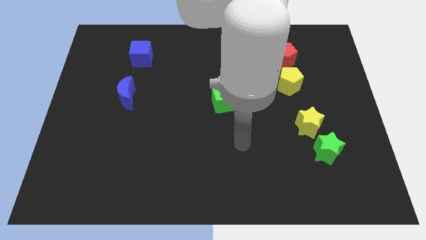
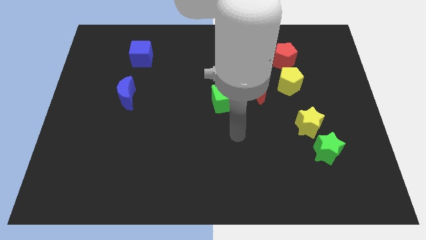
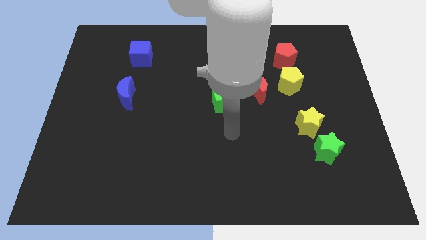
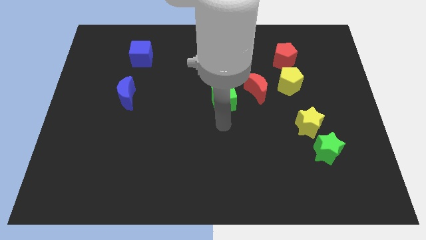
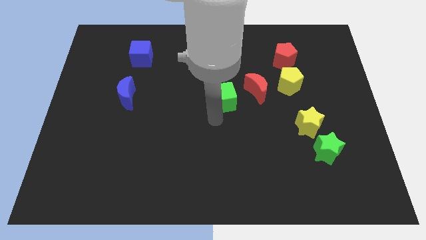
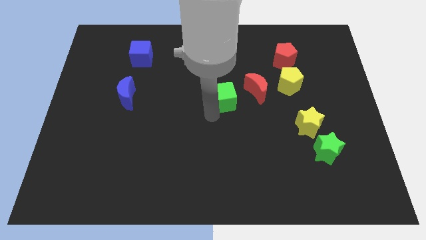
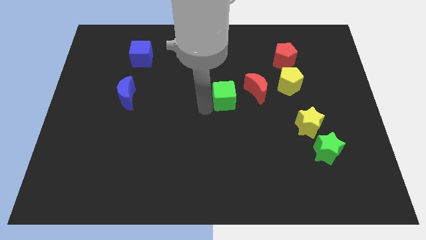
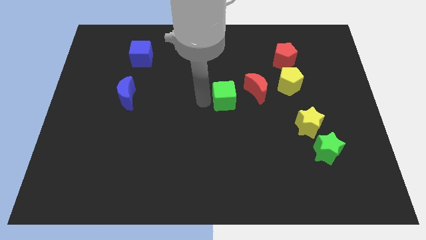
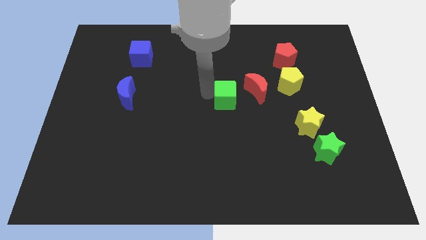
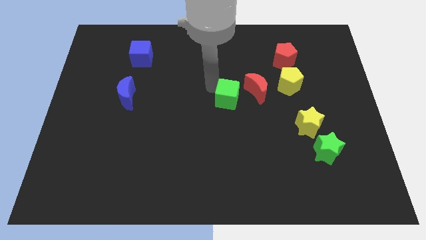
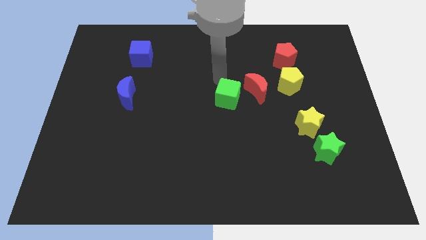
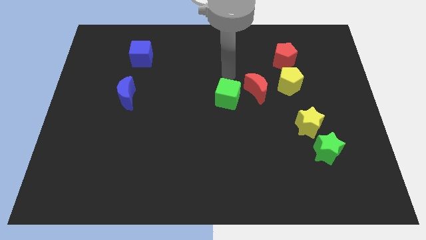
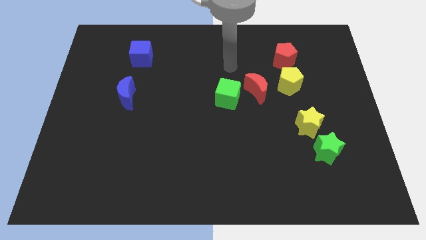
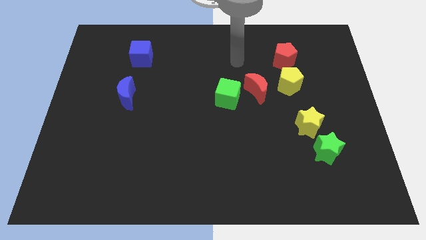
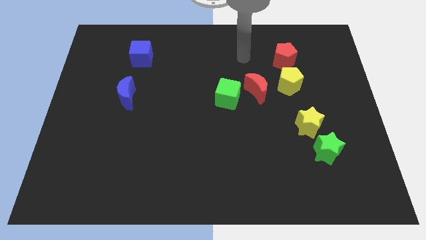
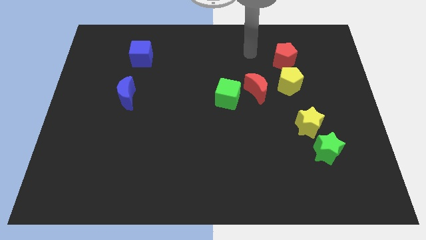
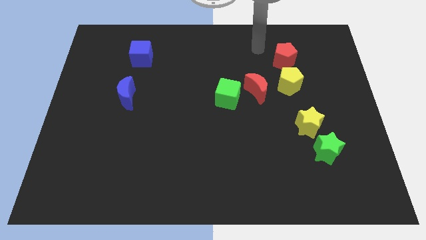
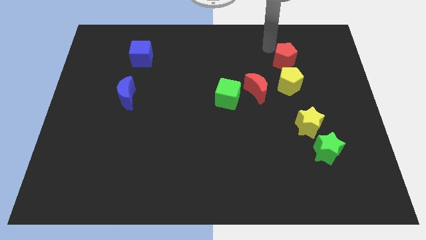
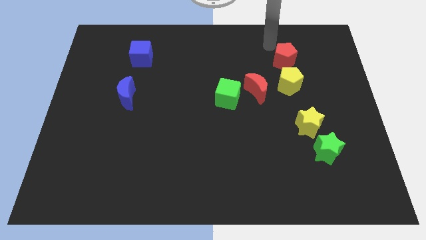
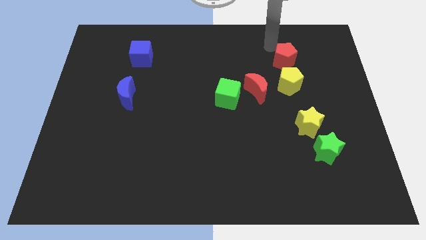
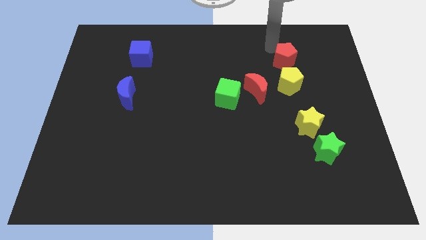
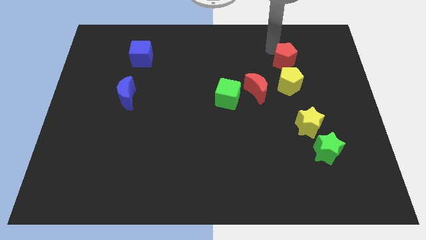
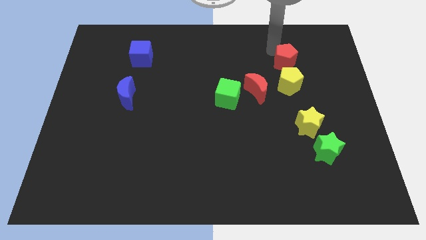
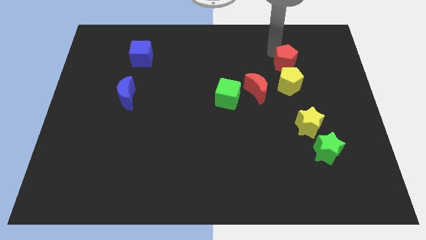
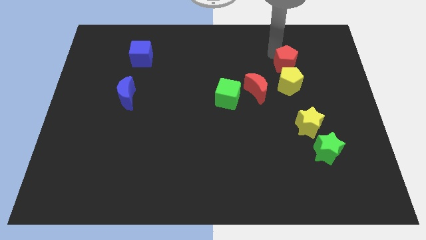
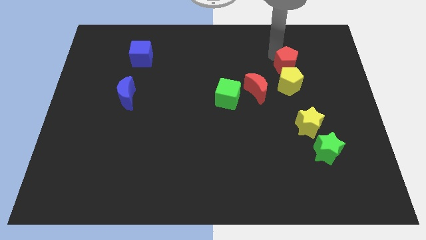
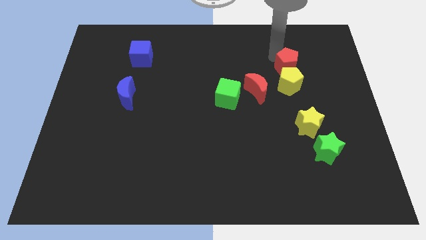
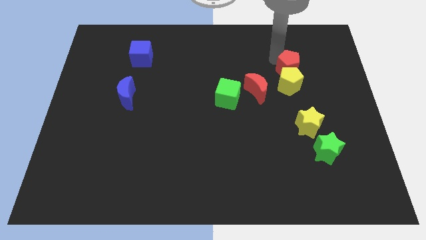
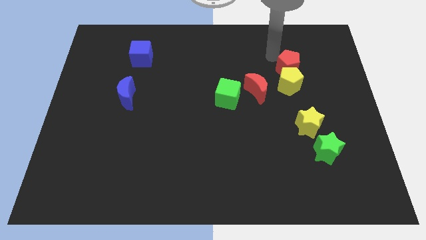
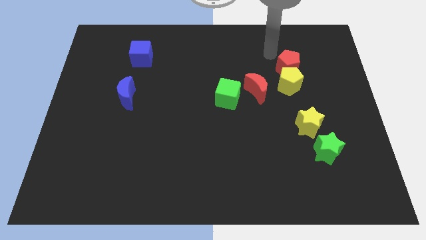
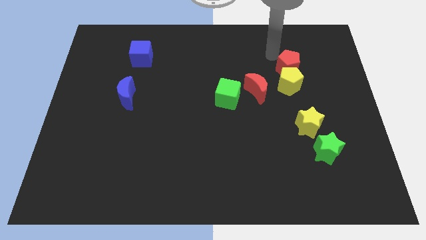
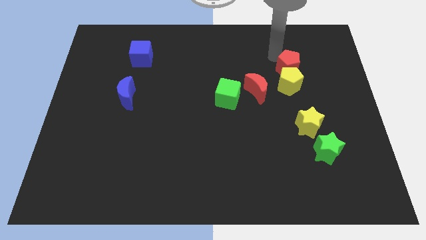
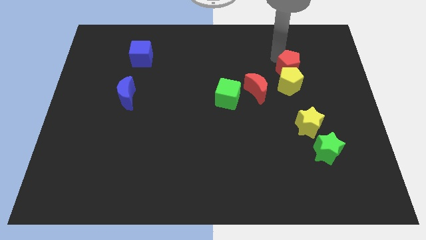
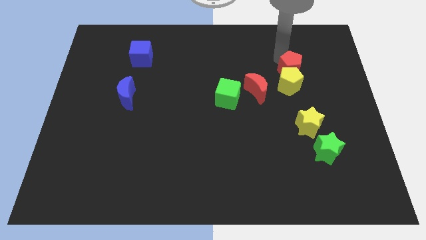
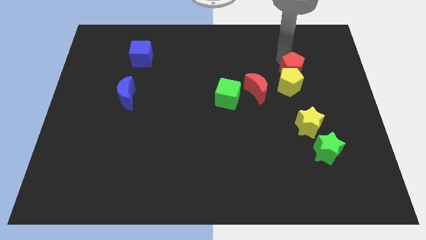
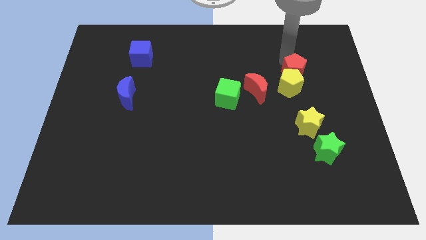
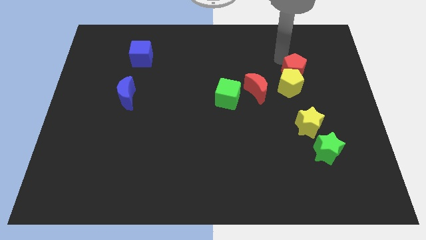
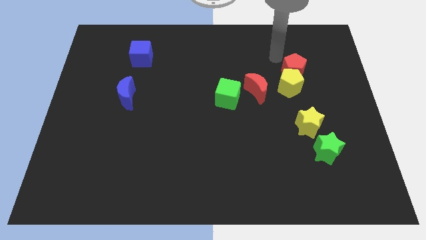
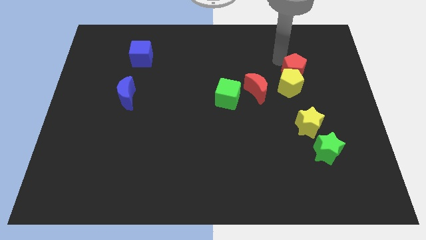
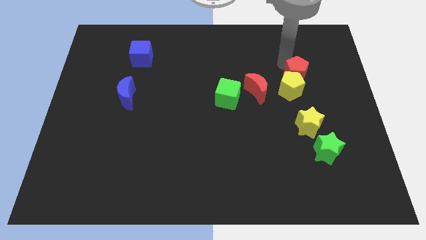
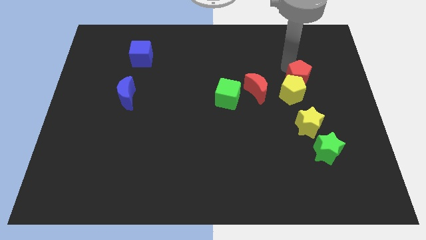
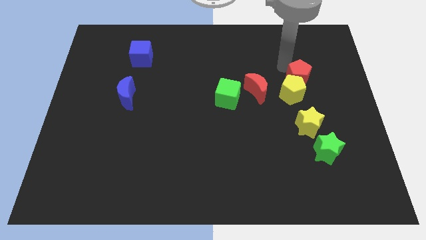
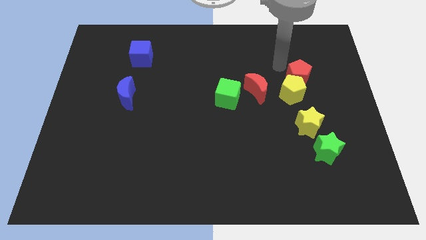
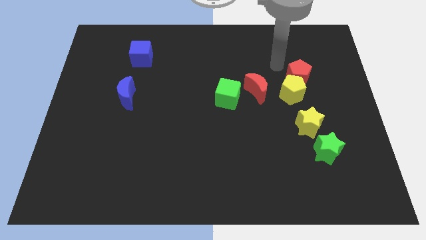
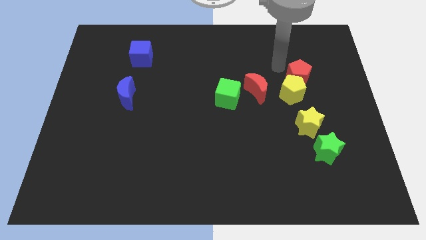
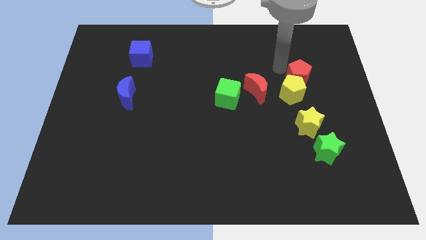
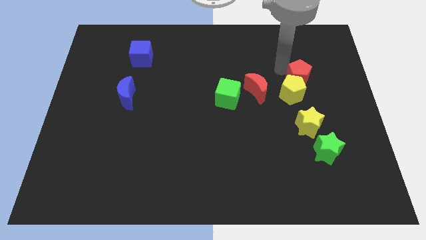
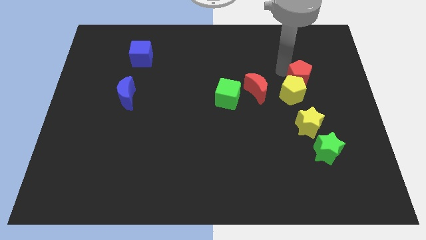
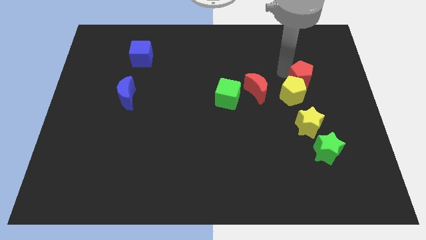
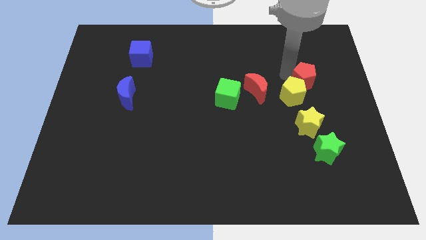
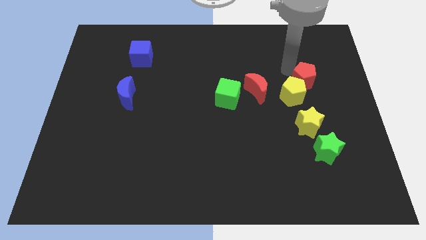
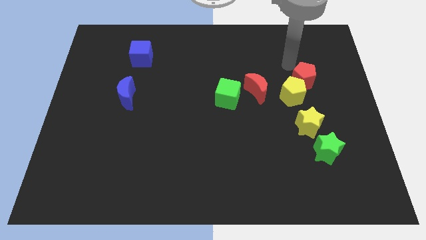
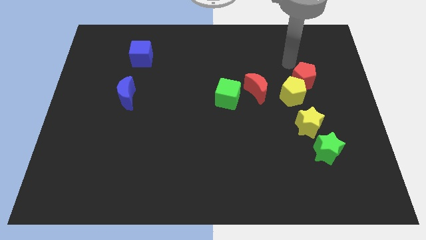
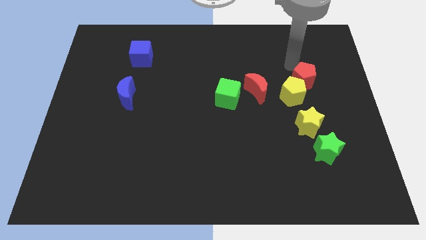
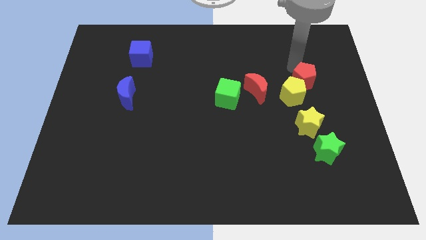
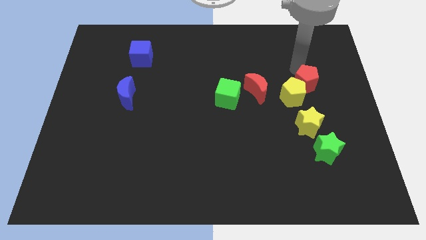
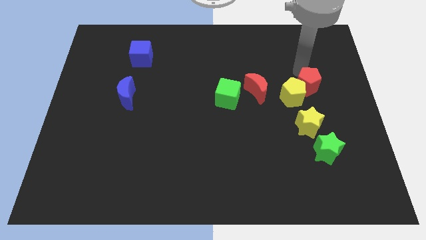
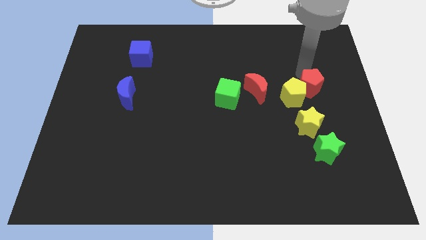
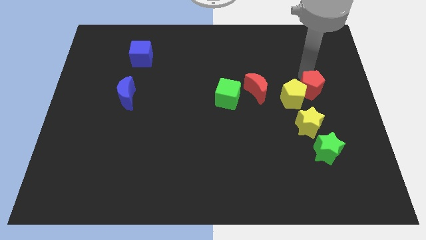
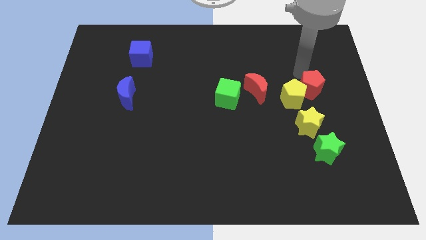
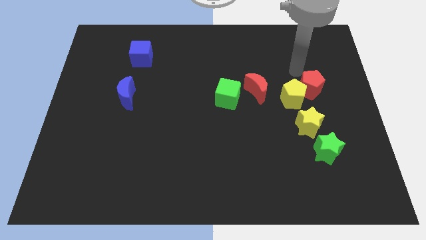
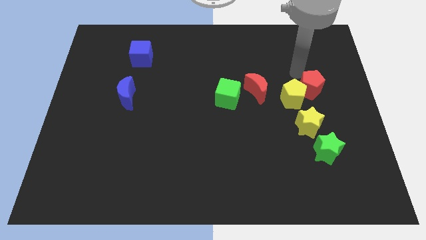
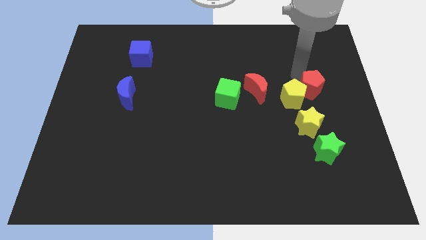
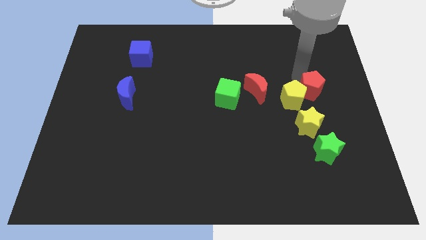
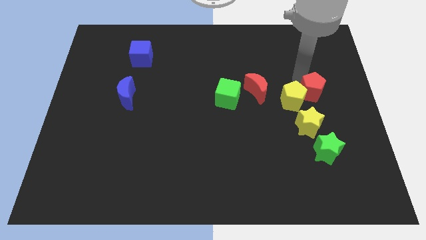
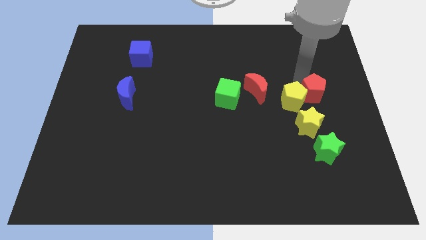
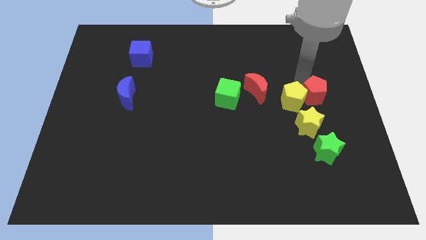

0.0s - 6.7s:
put the red pentagon to the top right side of the yellow star

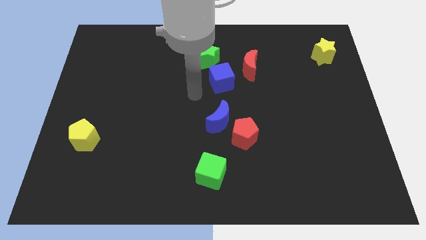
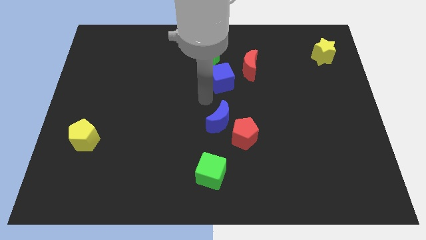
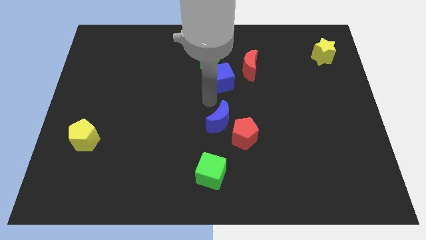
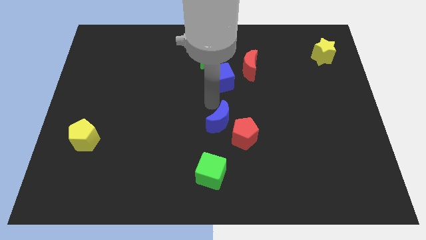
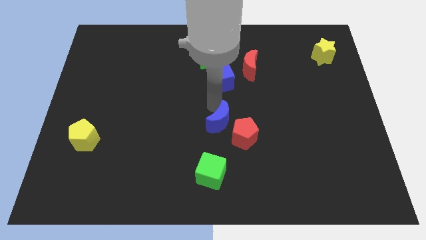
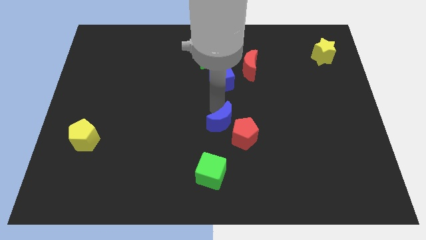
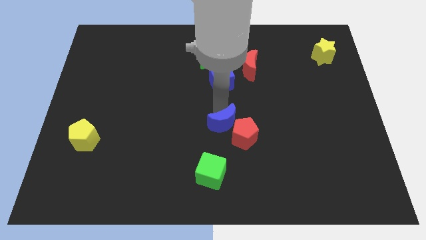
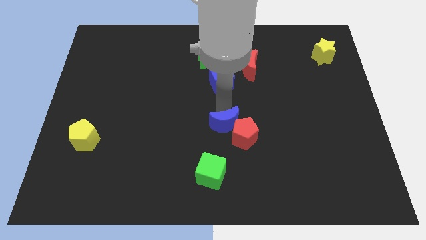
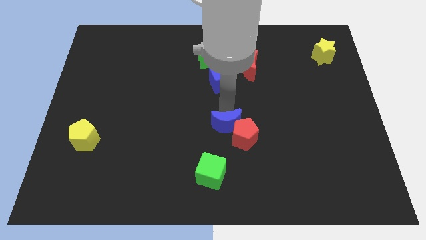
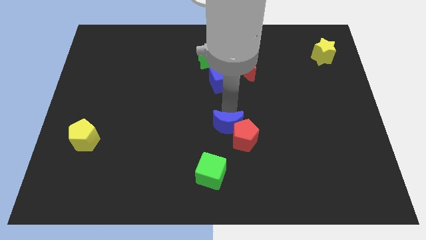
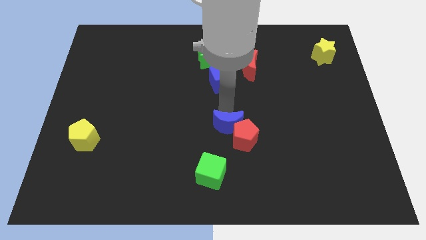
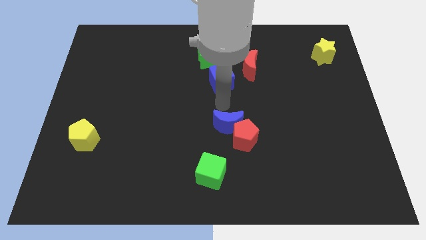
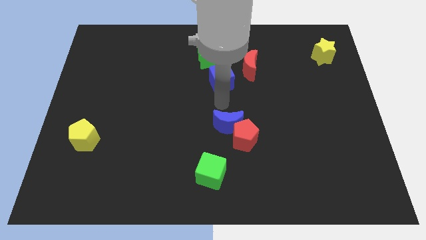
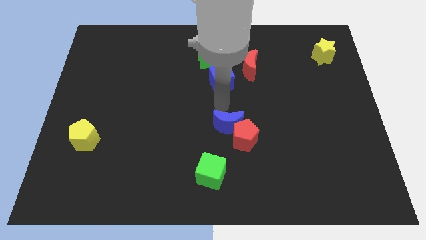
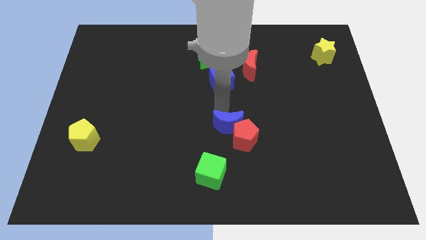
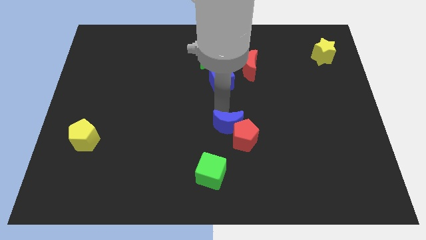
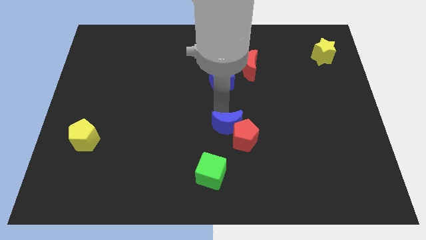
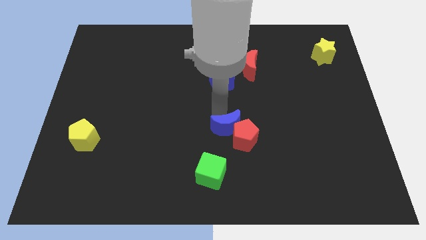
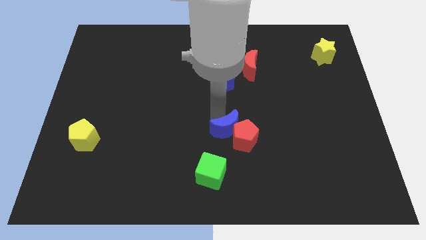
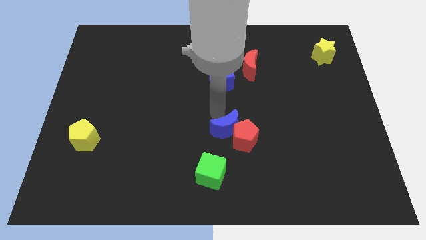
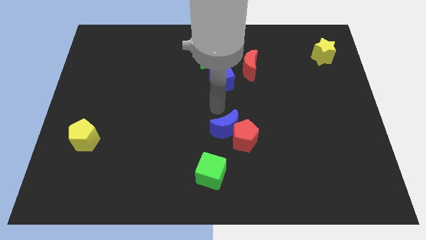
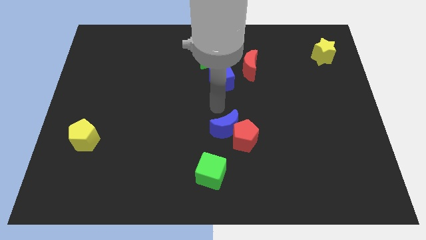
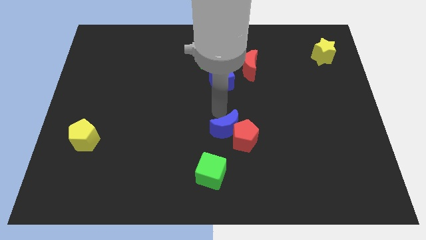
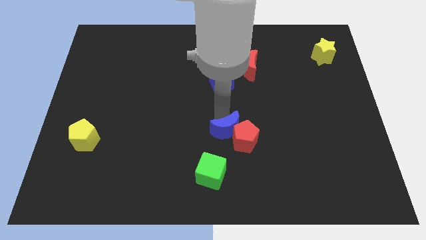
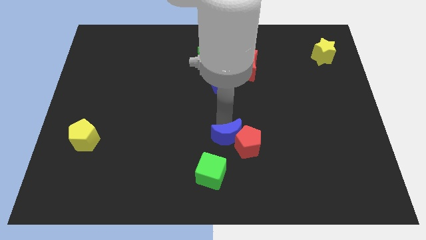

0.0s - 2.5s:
push the blue moon diagonally up and to the right of the green cube
